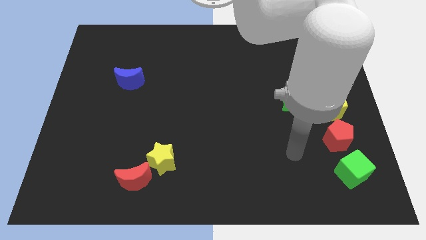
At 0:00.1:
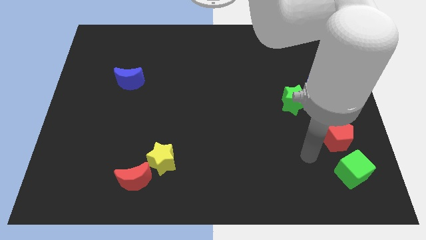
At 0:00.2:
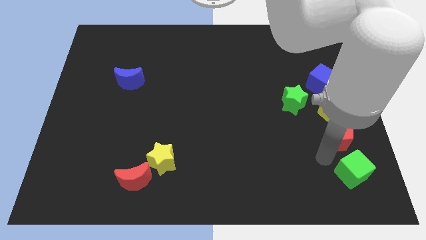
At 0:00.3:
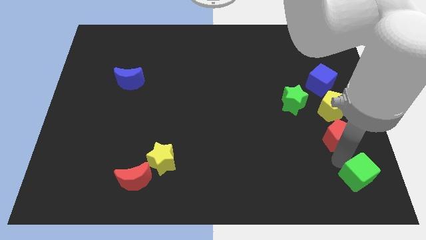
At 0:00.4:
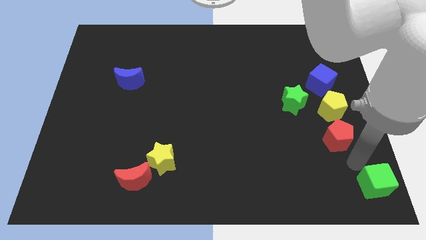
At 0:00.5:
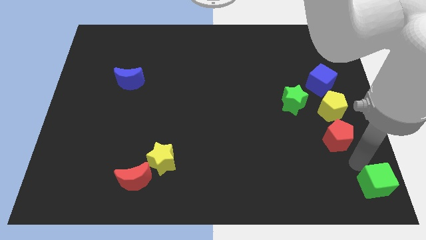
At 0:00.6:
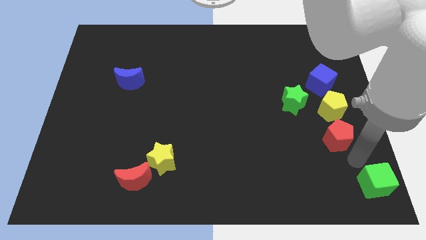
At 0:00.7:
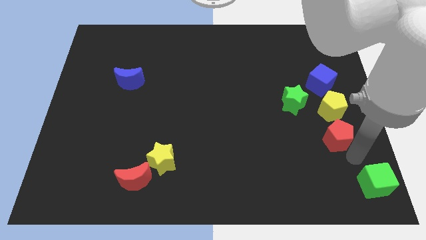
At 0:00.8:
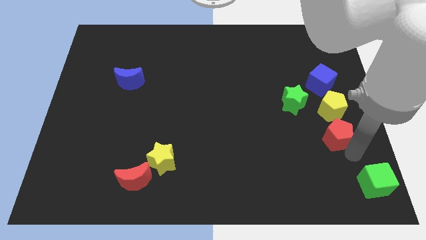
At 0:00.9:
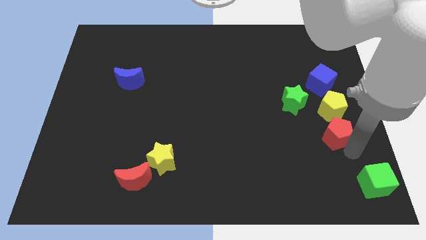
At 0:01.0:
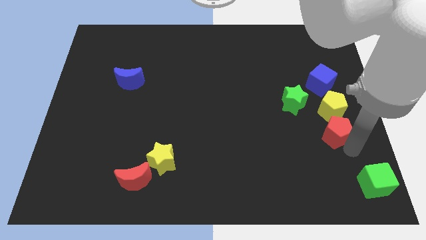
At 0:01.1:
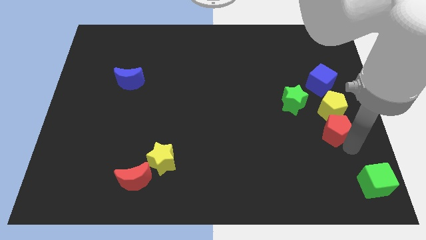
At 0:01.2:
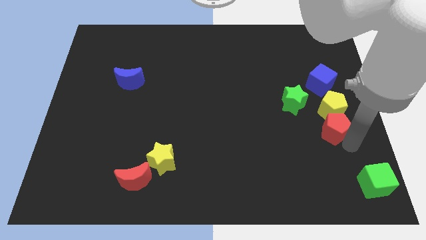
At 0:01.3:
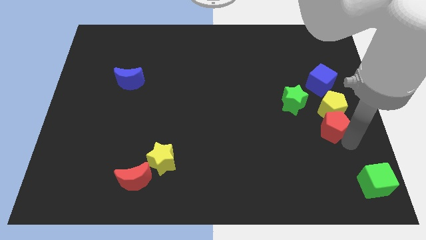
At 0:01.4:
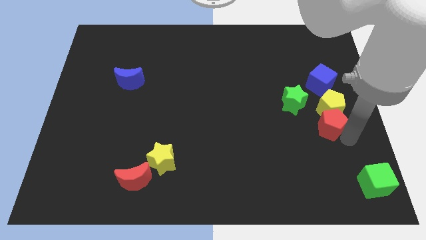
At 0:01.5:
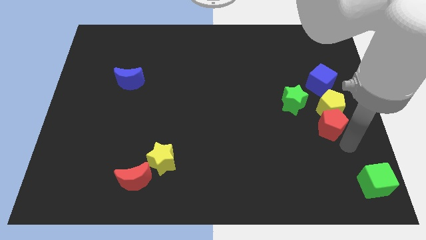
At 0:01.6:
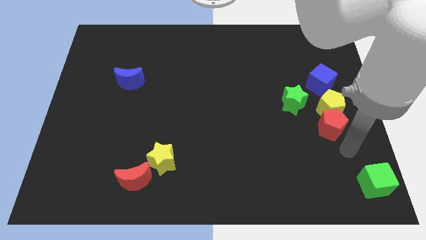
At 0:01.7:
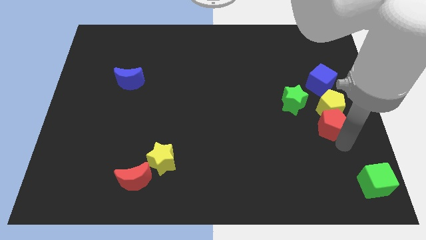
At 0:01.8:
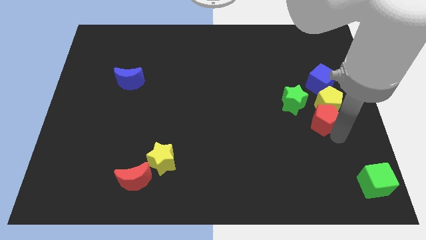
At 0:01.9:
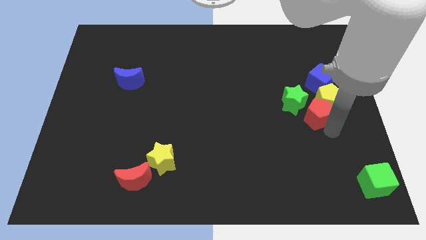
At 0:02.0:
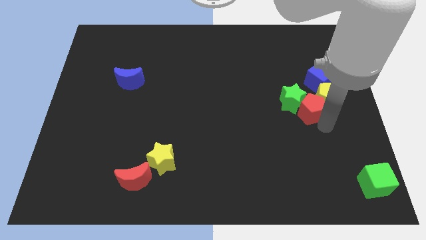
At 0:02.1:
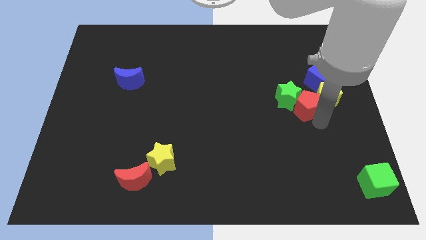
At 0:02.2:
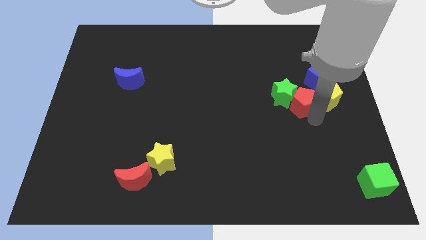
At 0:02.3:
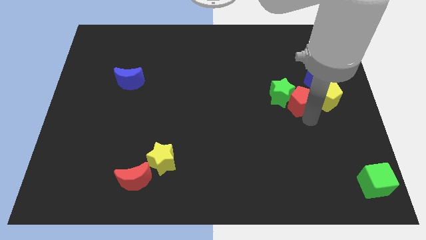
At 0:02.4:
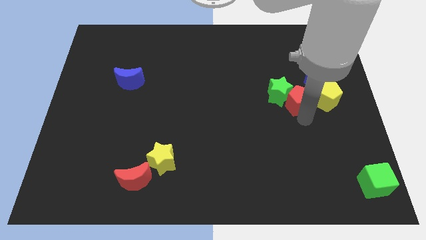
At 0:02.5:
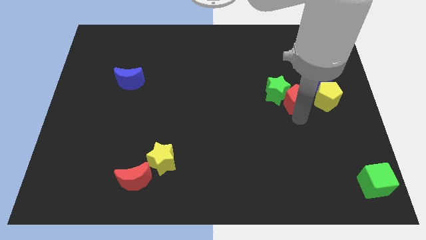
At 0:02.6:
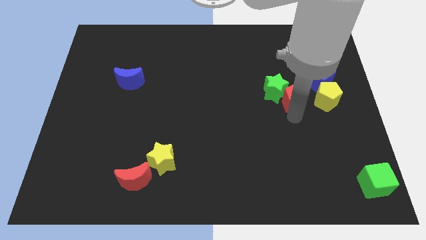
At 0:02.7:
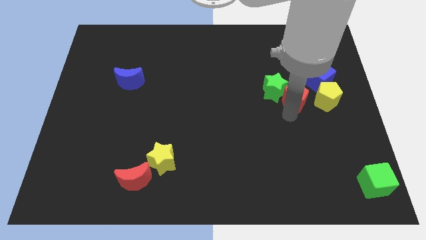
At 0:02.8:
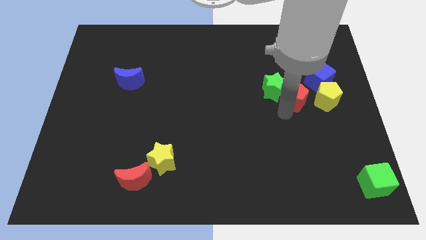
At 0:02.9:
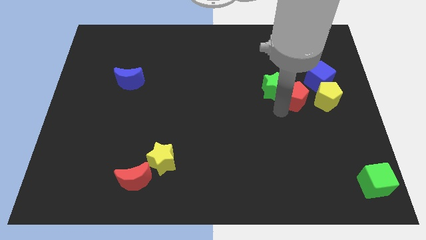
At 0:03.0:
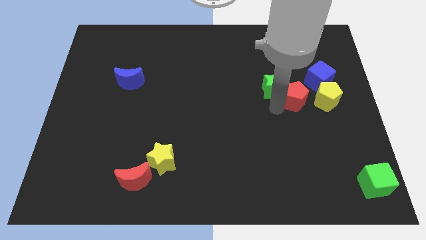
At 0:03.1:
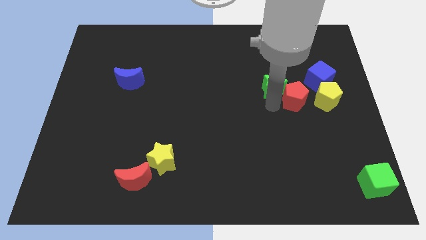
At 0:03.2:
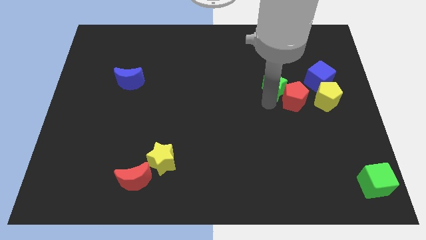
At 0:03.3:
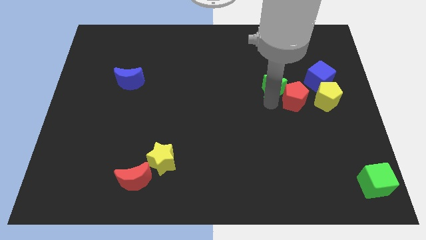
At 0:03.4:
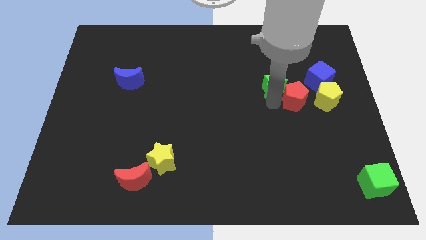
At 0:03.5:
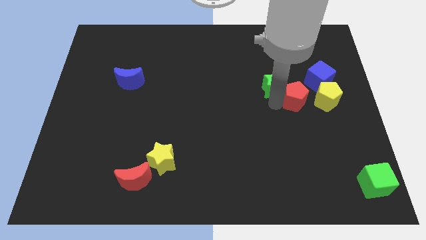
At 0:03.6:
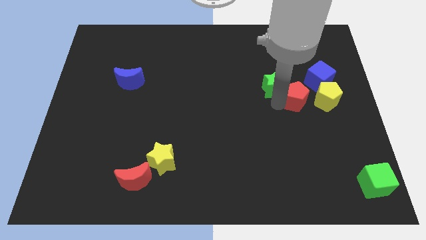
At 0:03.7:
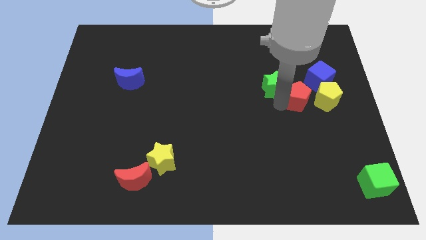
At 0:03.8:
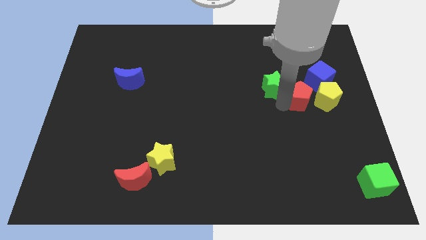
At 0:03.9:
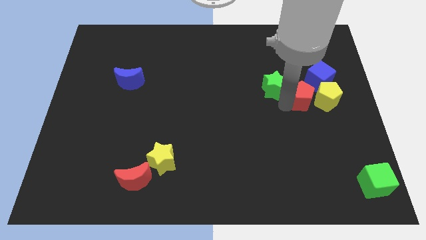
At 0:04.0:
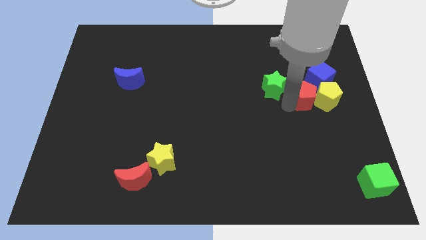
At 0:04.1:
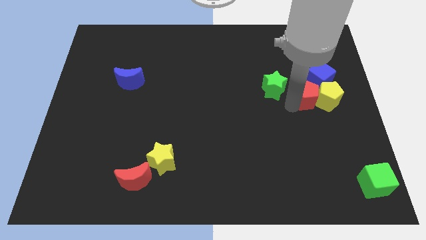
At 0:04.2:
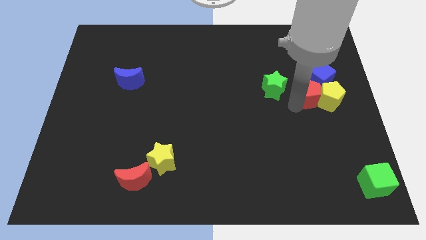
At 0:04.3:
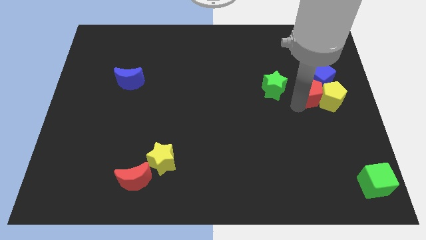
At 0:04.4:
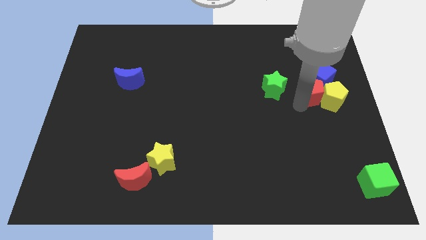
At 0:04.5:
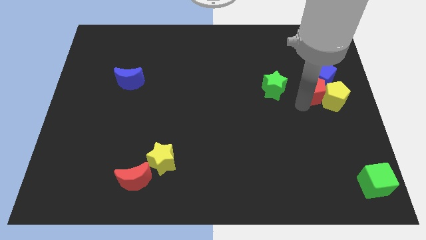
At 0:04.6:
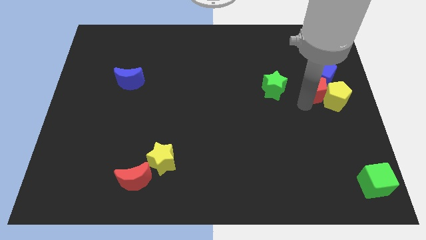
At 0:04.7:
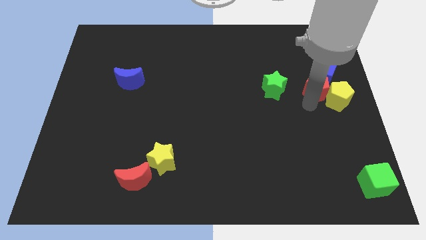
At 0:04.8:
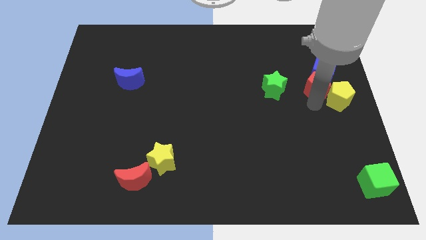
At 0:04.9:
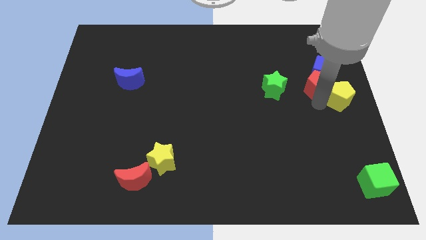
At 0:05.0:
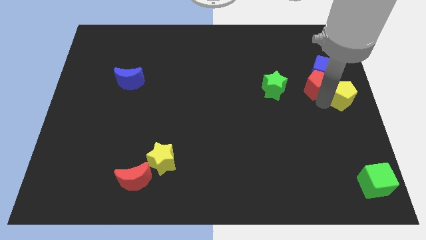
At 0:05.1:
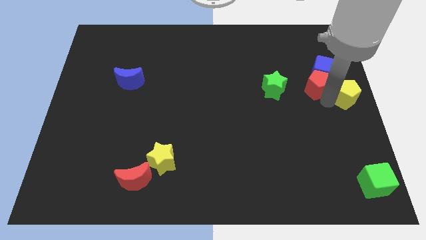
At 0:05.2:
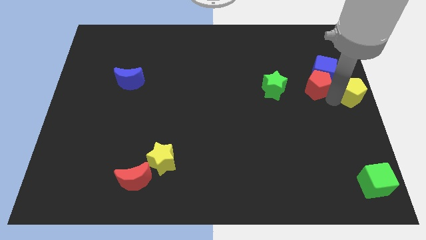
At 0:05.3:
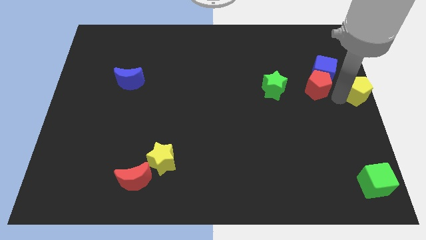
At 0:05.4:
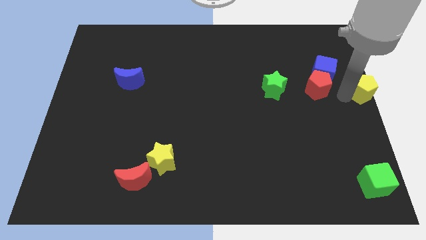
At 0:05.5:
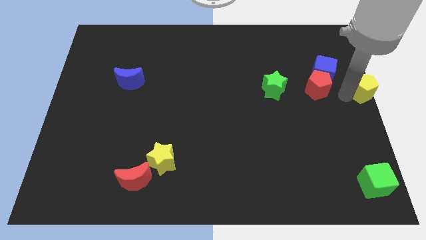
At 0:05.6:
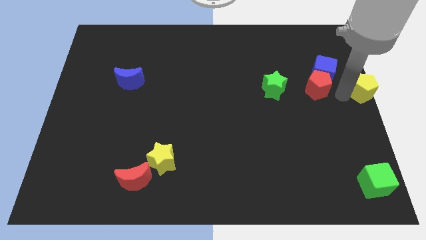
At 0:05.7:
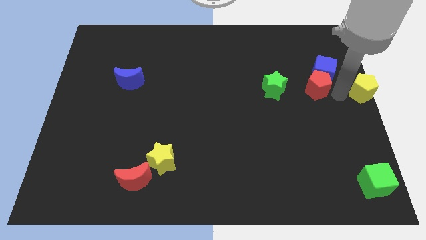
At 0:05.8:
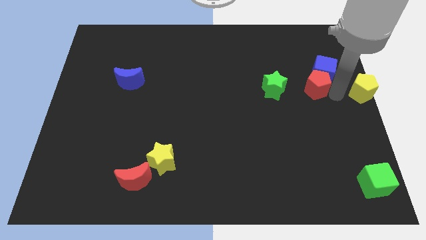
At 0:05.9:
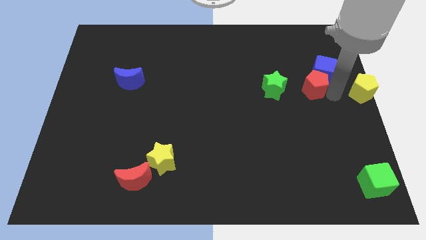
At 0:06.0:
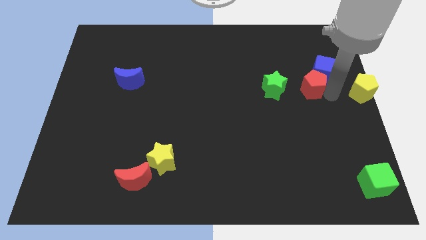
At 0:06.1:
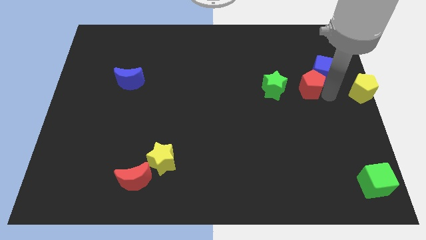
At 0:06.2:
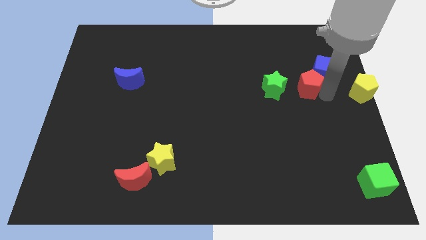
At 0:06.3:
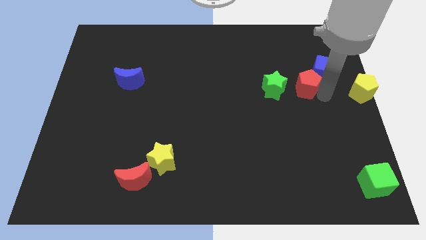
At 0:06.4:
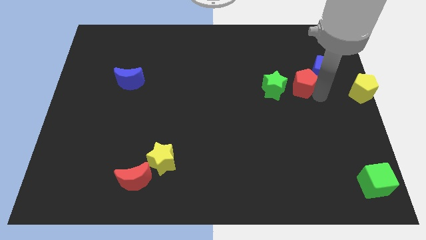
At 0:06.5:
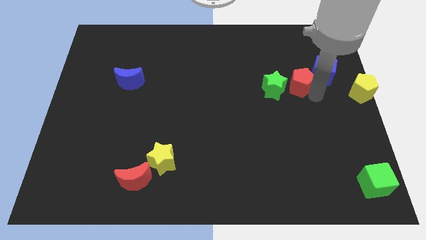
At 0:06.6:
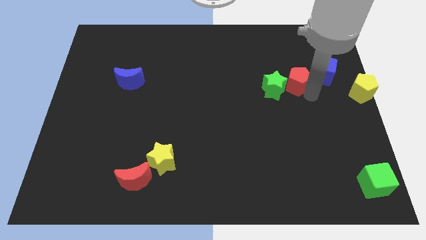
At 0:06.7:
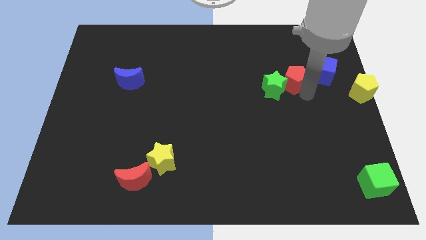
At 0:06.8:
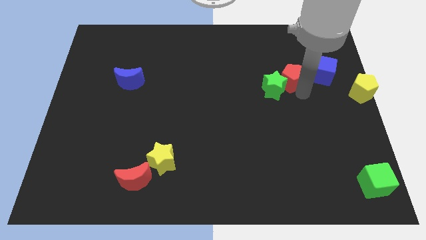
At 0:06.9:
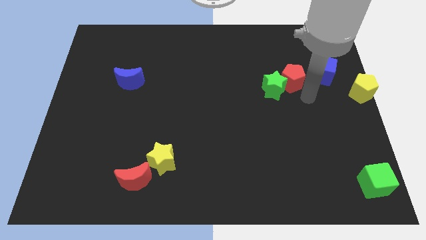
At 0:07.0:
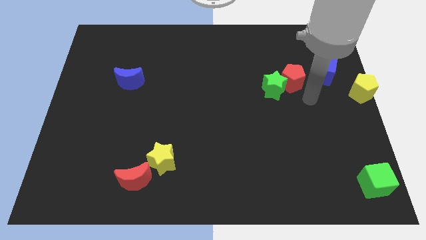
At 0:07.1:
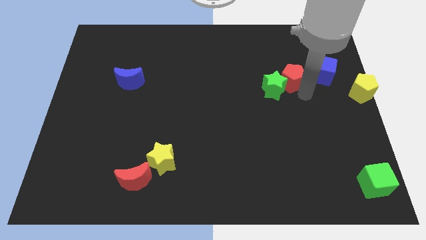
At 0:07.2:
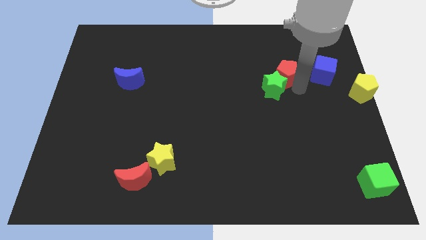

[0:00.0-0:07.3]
put the red pentagon to the top of the green star
